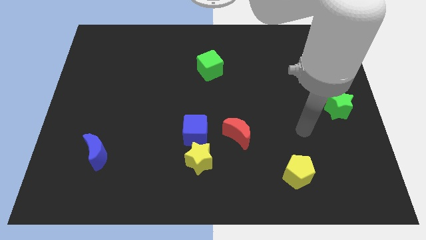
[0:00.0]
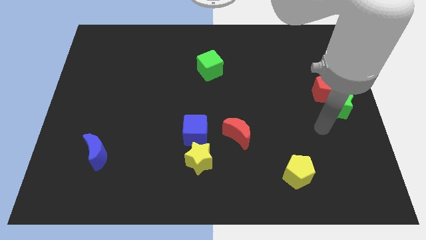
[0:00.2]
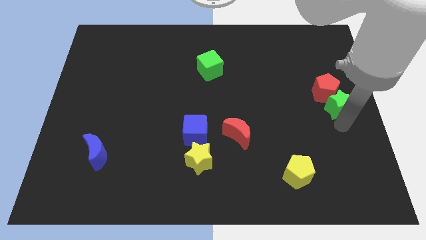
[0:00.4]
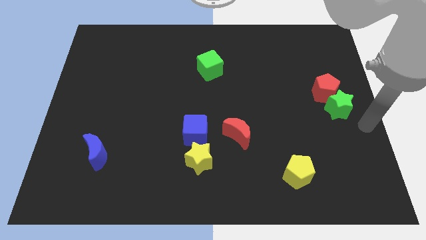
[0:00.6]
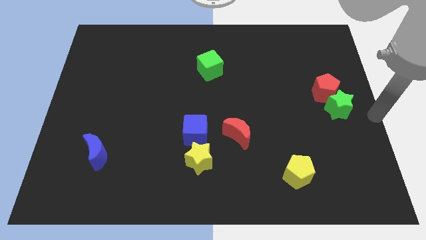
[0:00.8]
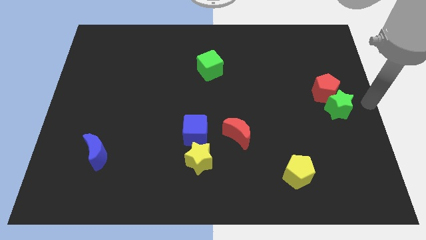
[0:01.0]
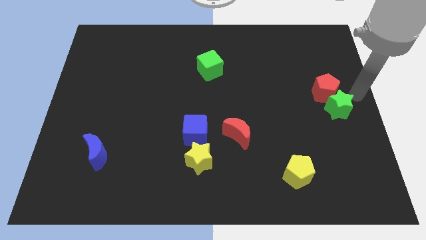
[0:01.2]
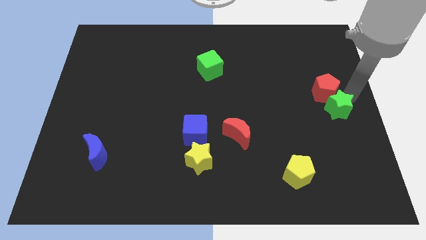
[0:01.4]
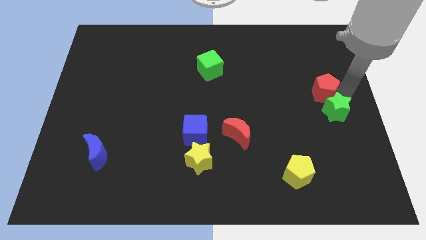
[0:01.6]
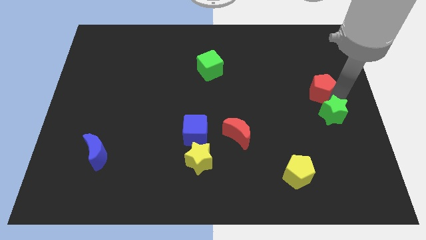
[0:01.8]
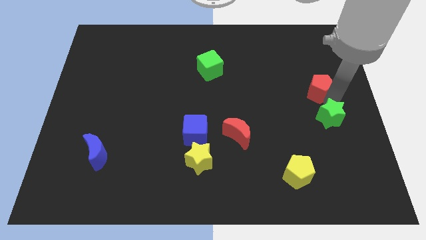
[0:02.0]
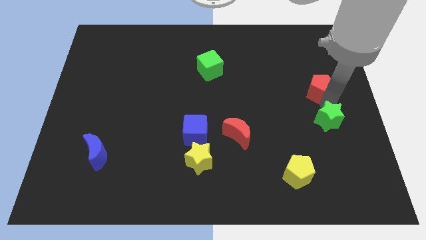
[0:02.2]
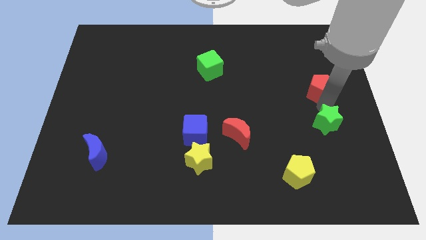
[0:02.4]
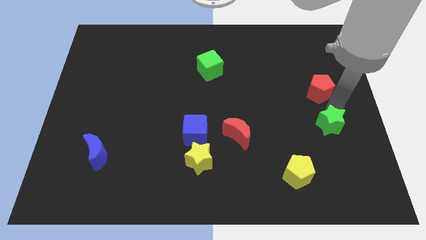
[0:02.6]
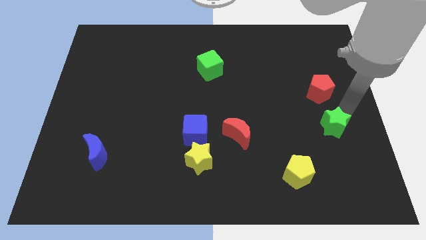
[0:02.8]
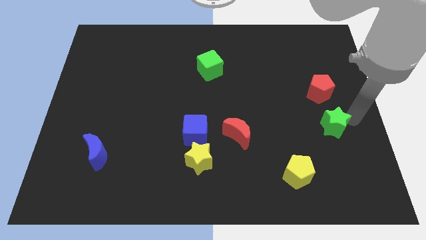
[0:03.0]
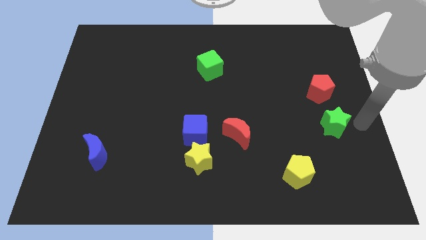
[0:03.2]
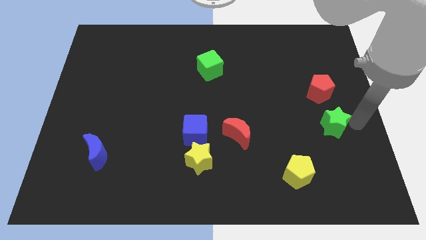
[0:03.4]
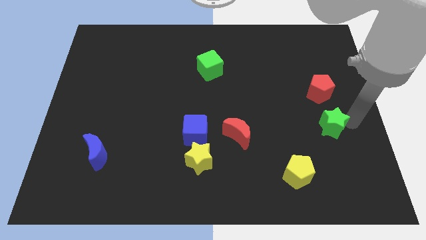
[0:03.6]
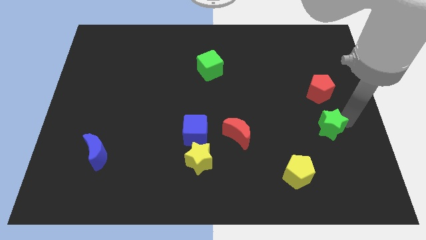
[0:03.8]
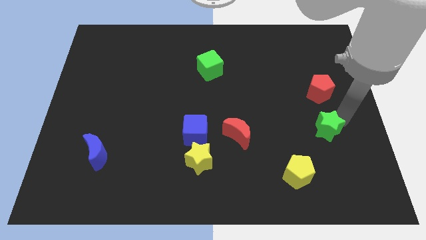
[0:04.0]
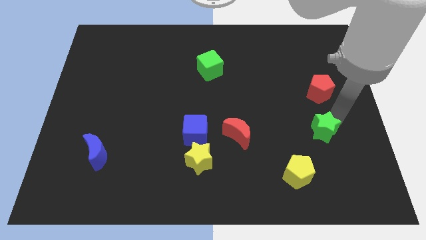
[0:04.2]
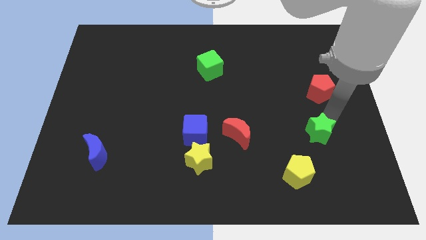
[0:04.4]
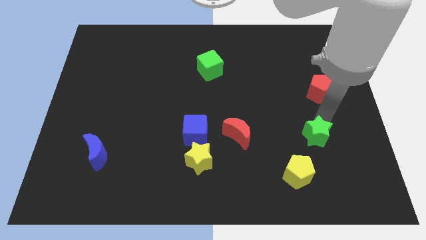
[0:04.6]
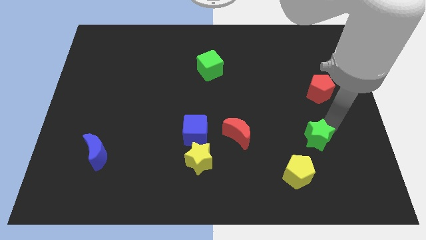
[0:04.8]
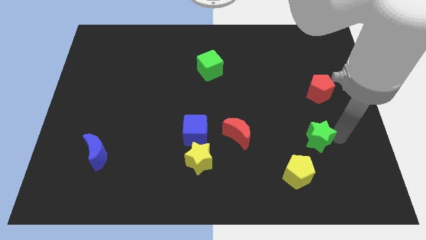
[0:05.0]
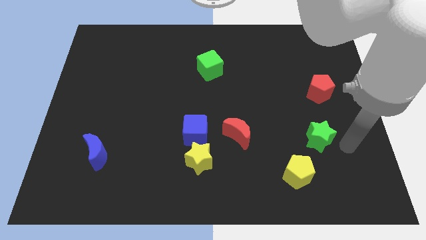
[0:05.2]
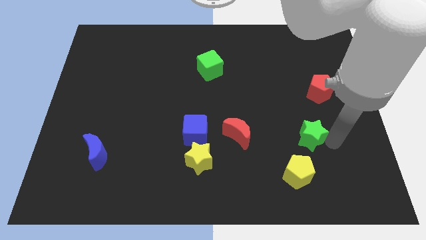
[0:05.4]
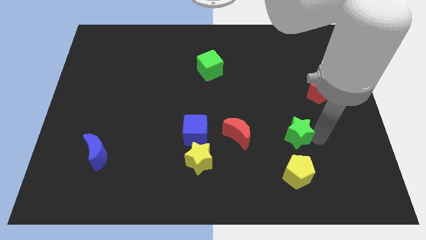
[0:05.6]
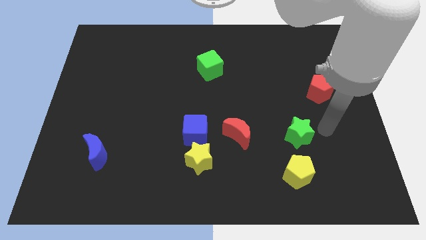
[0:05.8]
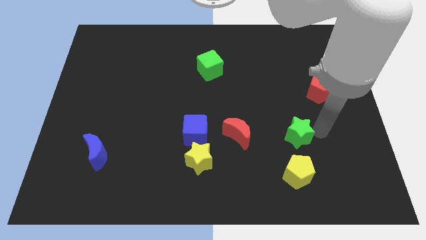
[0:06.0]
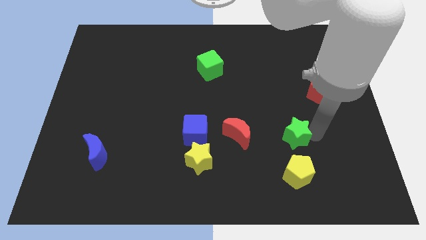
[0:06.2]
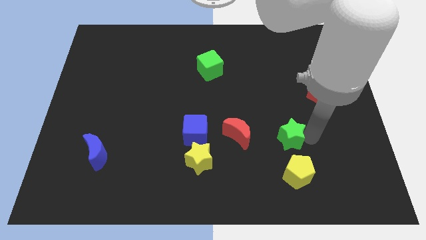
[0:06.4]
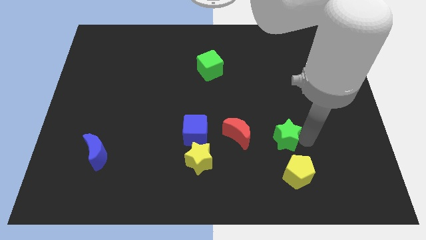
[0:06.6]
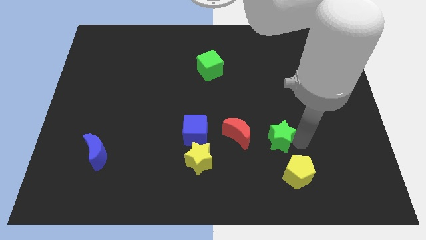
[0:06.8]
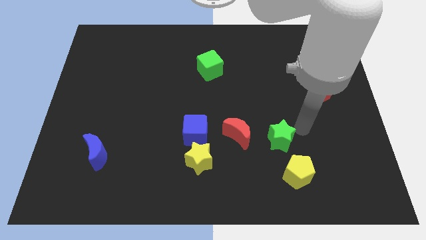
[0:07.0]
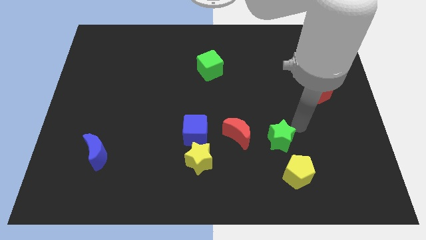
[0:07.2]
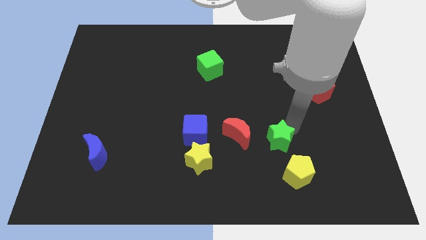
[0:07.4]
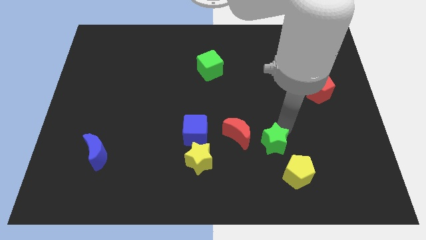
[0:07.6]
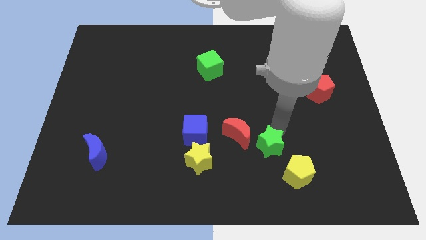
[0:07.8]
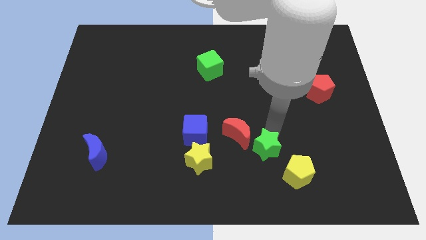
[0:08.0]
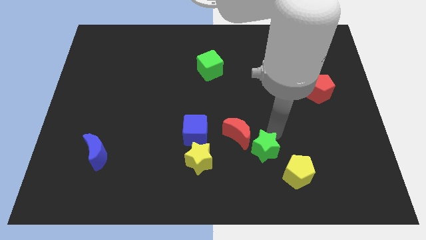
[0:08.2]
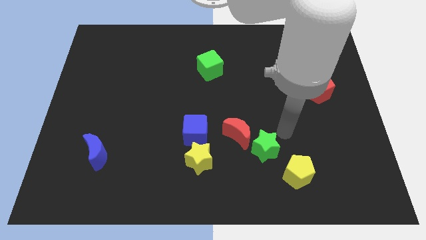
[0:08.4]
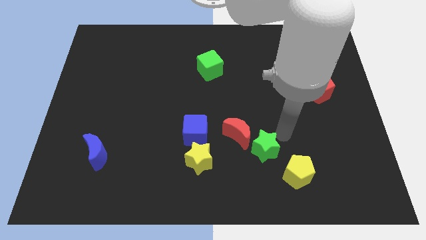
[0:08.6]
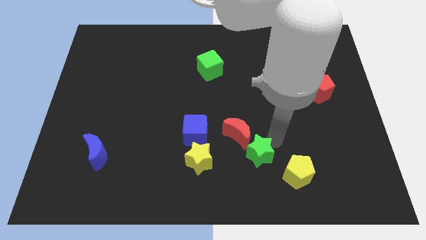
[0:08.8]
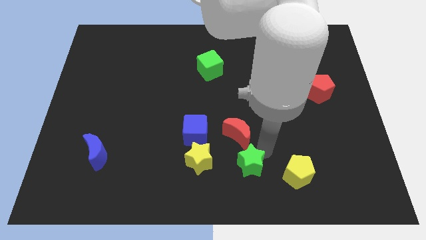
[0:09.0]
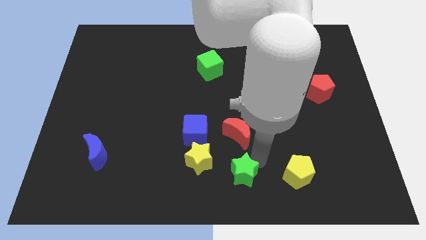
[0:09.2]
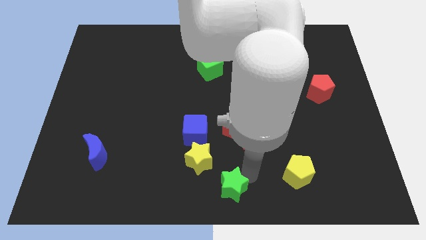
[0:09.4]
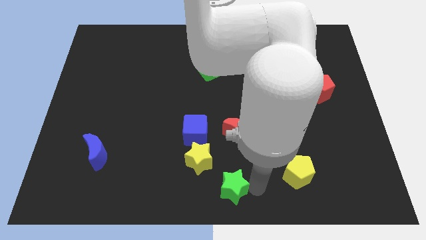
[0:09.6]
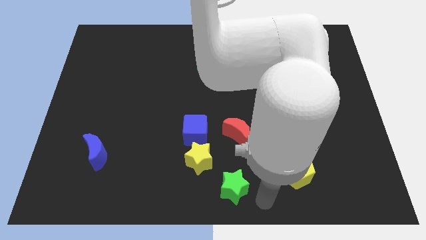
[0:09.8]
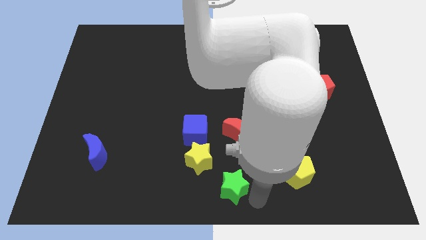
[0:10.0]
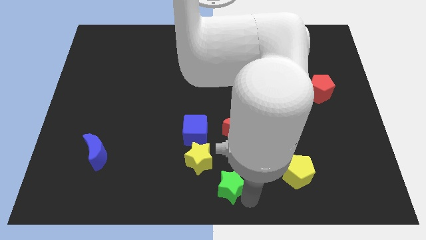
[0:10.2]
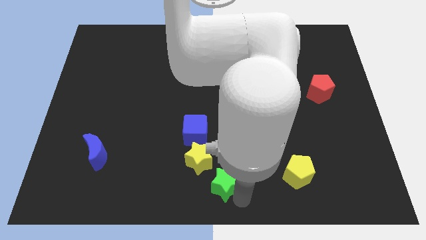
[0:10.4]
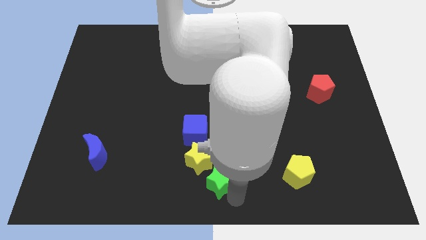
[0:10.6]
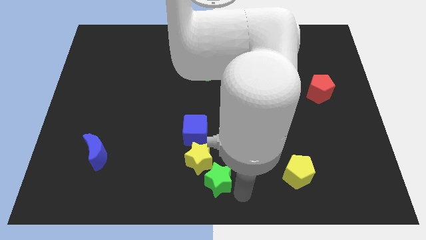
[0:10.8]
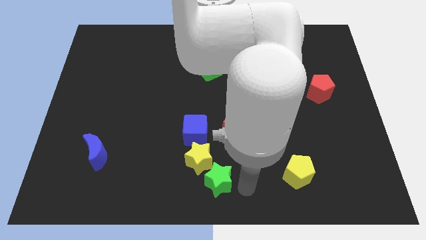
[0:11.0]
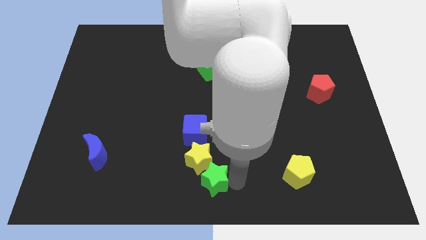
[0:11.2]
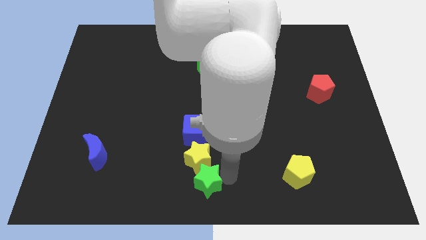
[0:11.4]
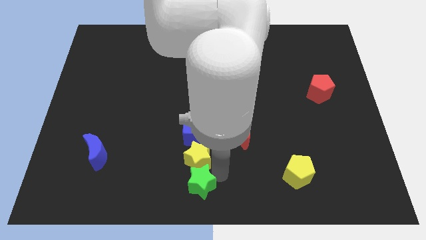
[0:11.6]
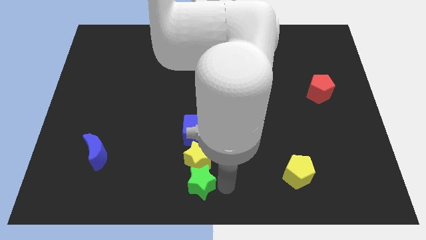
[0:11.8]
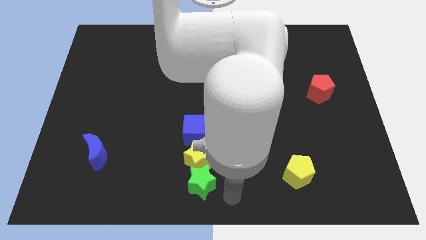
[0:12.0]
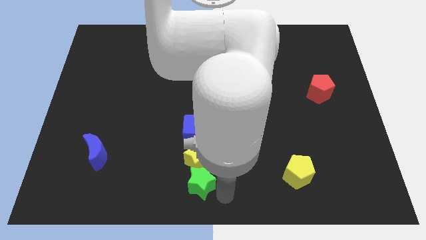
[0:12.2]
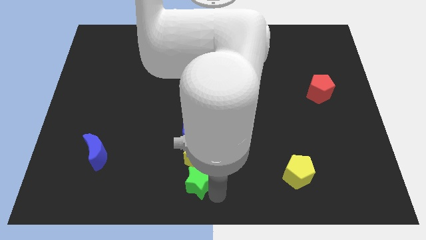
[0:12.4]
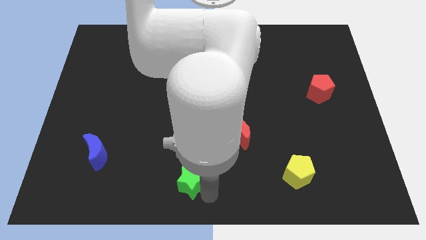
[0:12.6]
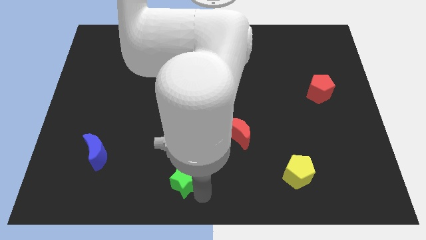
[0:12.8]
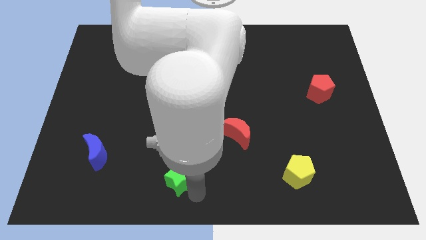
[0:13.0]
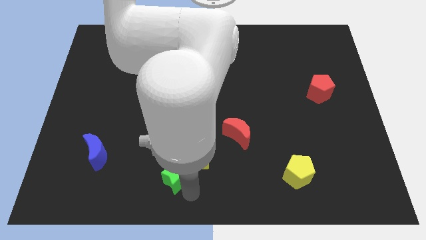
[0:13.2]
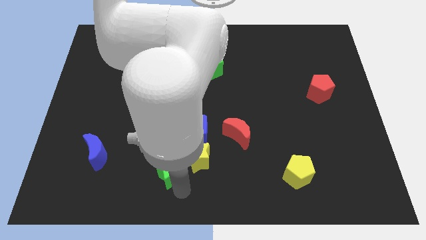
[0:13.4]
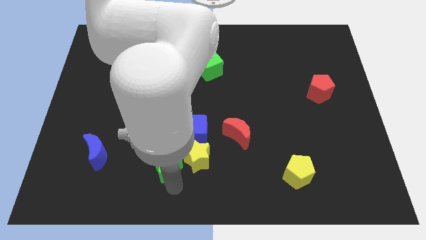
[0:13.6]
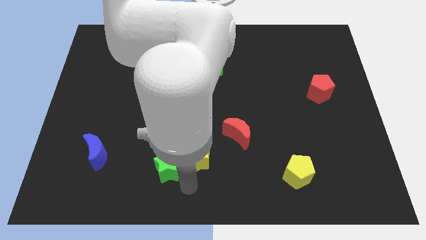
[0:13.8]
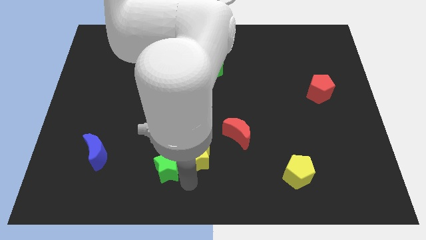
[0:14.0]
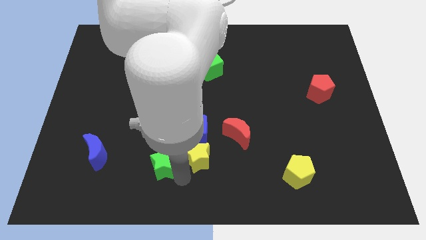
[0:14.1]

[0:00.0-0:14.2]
slide the green star to the right side of the blue moon

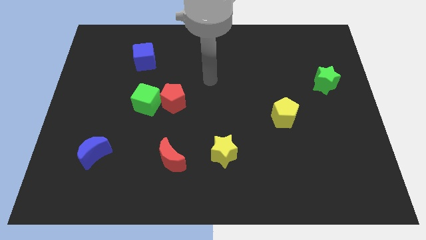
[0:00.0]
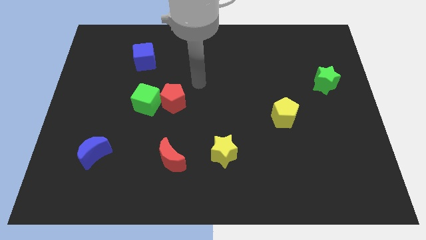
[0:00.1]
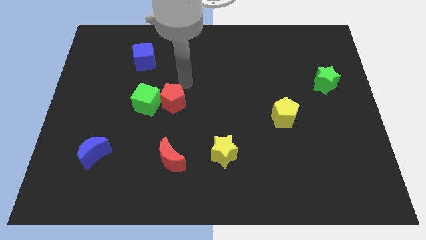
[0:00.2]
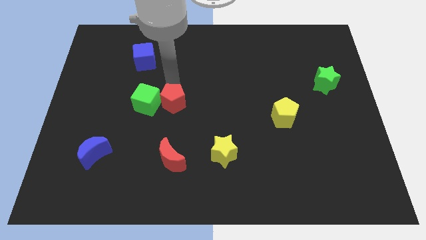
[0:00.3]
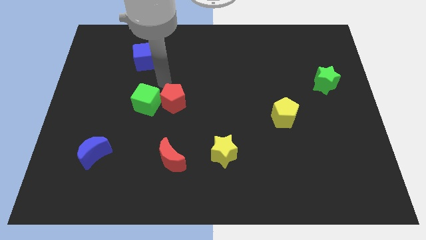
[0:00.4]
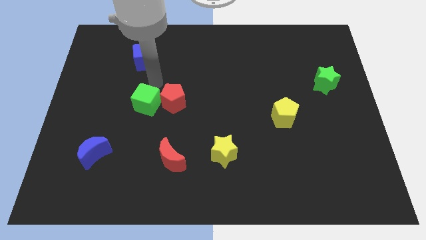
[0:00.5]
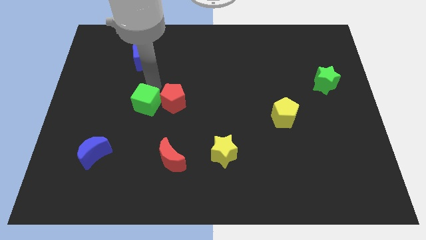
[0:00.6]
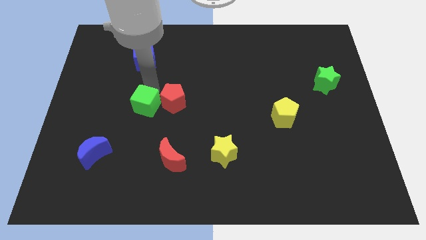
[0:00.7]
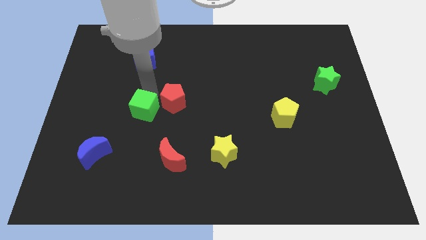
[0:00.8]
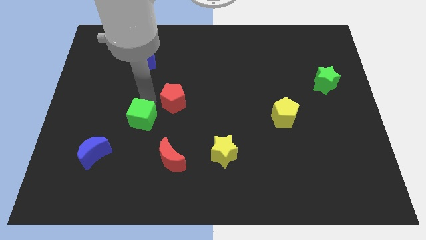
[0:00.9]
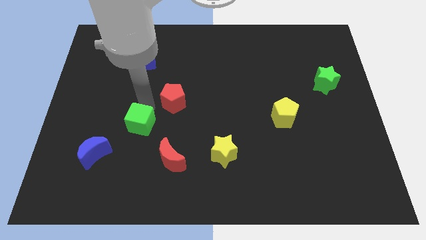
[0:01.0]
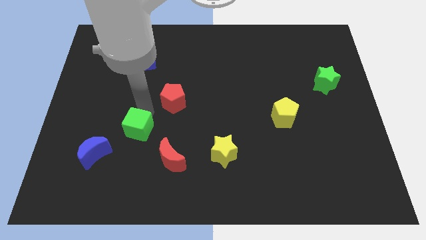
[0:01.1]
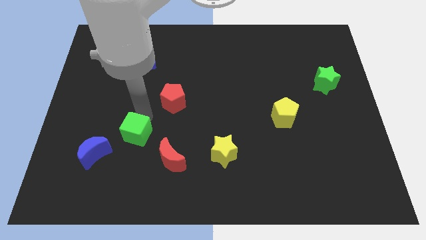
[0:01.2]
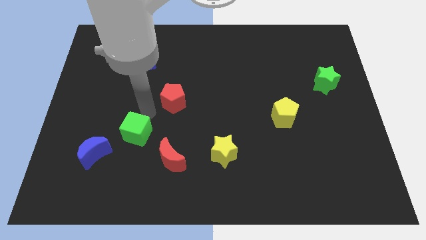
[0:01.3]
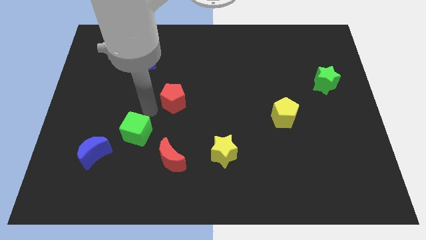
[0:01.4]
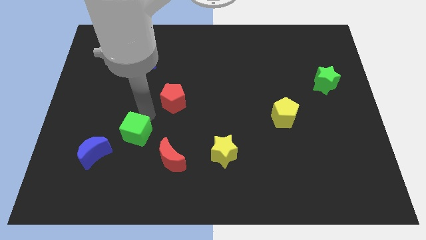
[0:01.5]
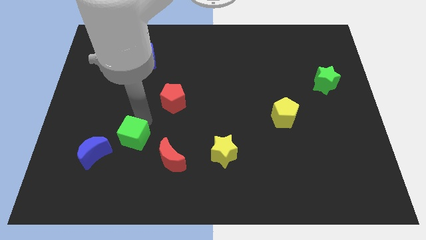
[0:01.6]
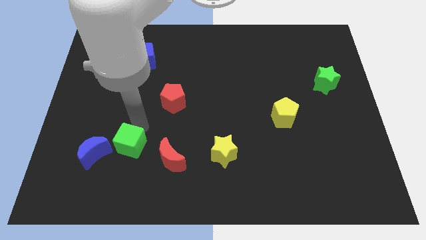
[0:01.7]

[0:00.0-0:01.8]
put the green cube to the left side of the red moon
